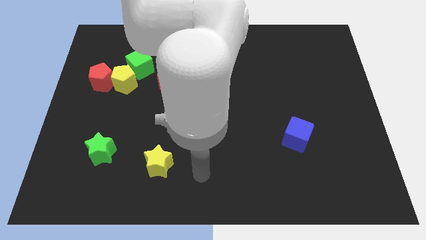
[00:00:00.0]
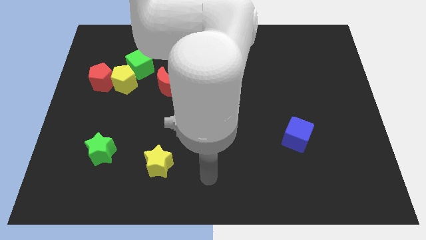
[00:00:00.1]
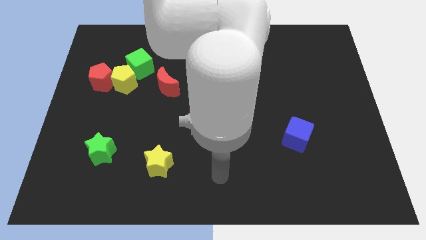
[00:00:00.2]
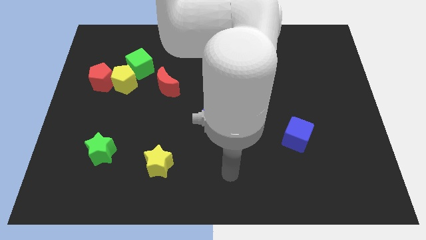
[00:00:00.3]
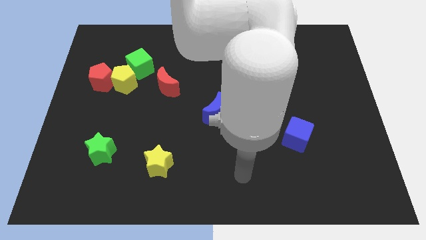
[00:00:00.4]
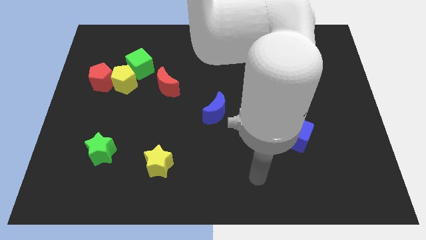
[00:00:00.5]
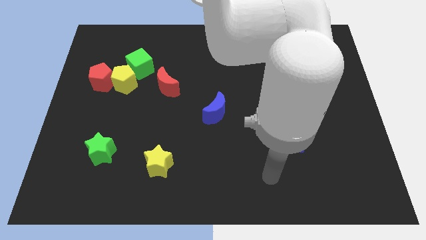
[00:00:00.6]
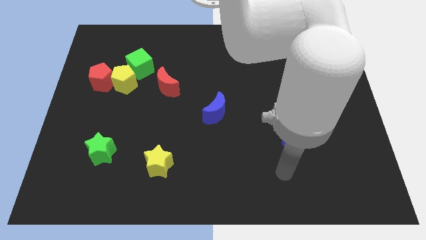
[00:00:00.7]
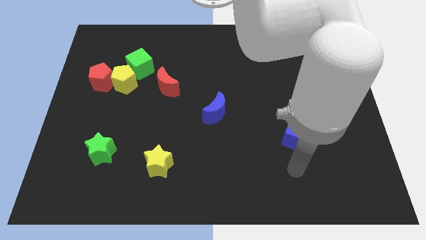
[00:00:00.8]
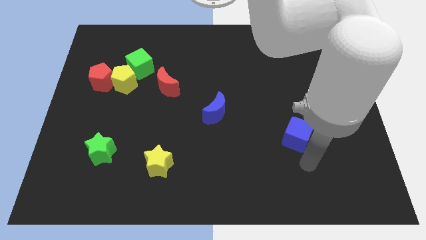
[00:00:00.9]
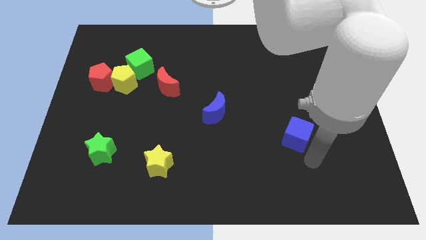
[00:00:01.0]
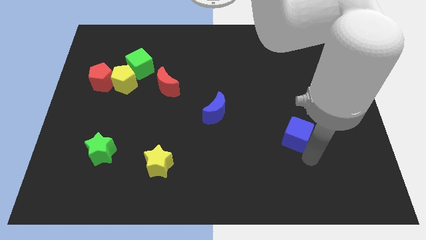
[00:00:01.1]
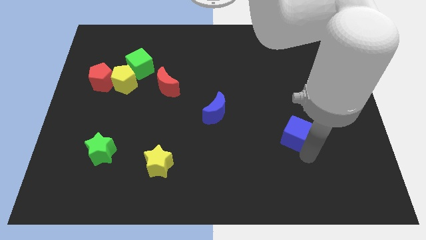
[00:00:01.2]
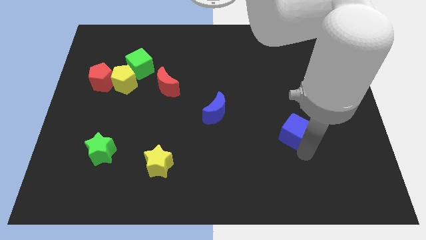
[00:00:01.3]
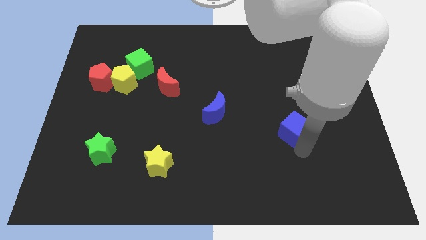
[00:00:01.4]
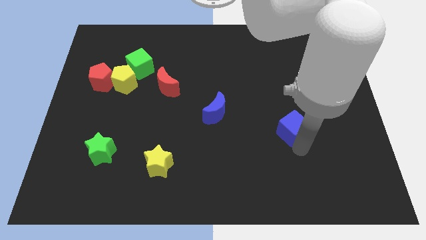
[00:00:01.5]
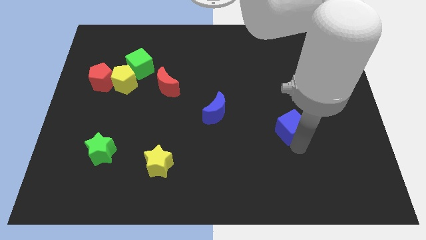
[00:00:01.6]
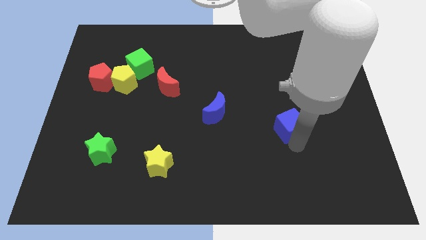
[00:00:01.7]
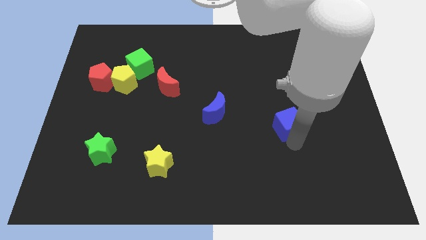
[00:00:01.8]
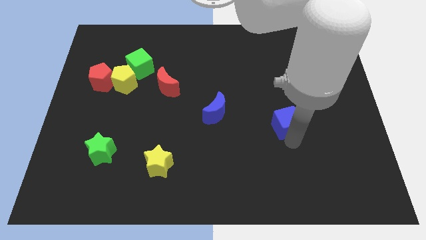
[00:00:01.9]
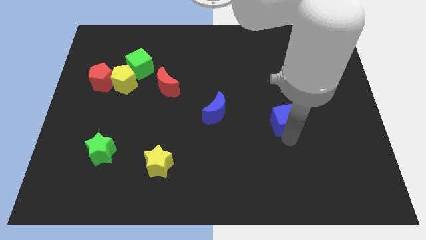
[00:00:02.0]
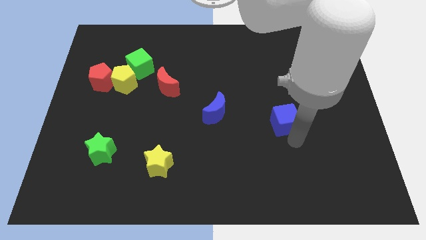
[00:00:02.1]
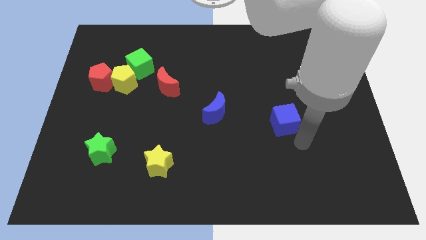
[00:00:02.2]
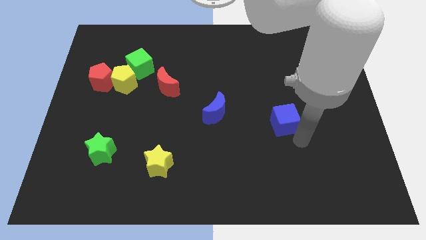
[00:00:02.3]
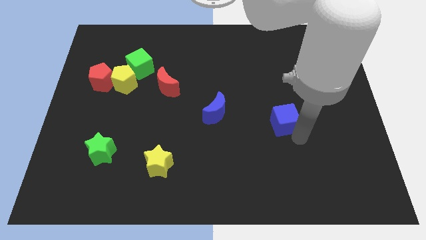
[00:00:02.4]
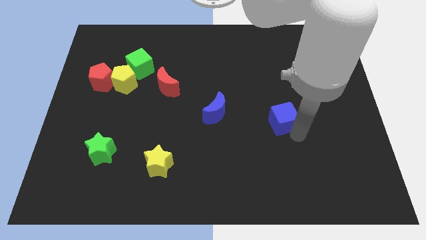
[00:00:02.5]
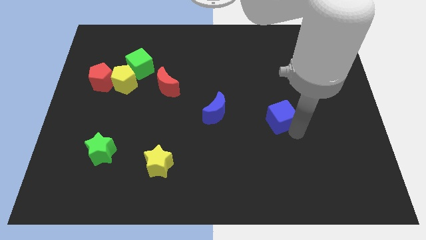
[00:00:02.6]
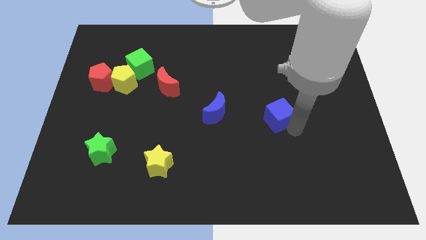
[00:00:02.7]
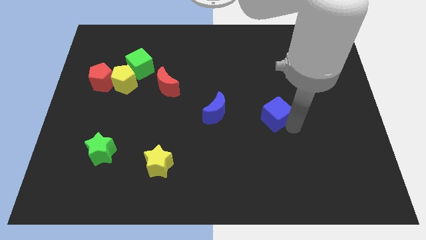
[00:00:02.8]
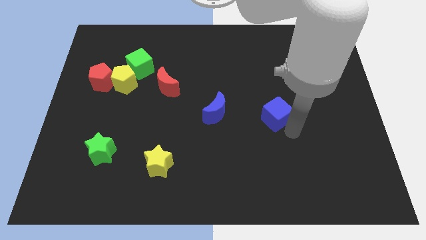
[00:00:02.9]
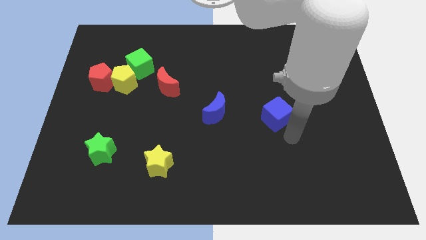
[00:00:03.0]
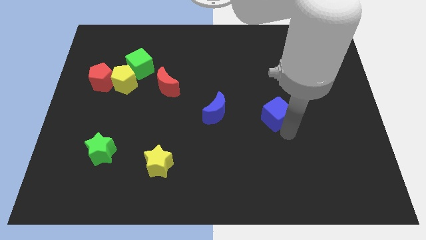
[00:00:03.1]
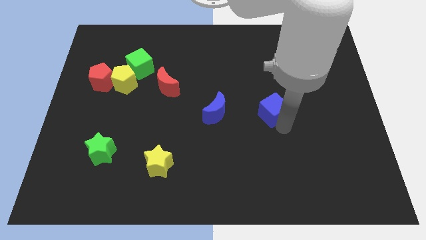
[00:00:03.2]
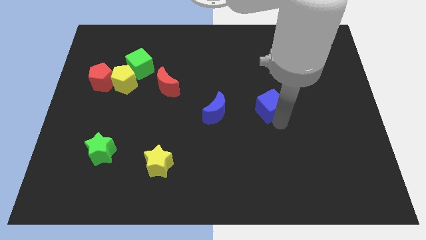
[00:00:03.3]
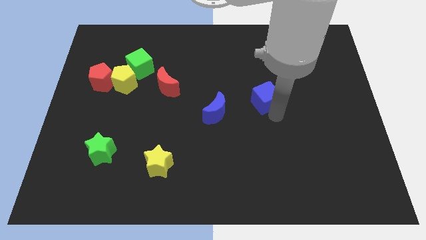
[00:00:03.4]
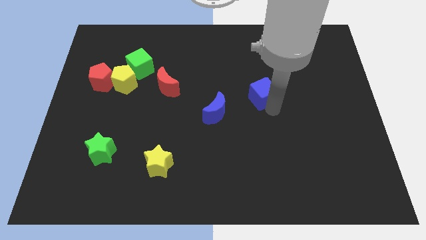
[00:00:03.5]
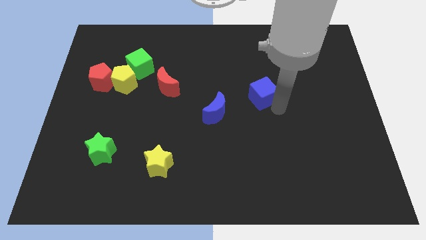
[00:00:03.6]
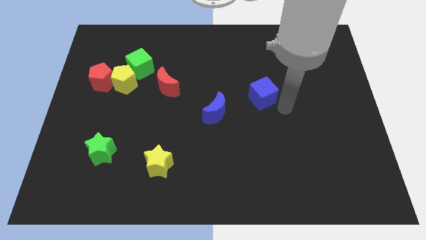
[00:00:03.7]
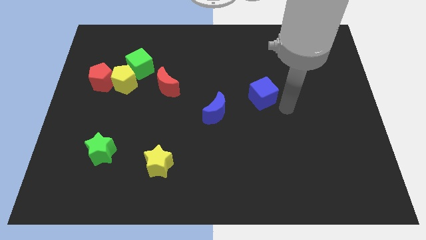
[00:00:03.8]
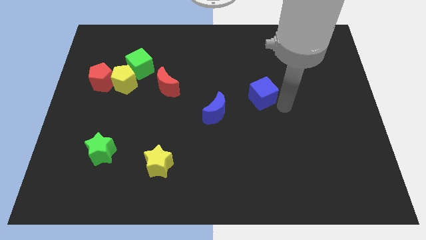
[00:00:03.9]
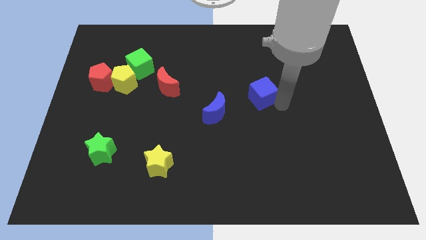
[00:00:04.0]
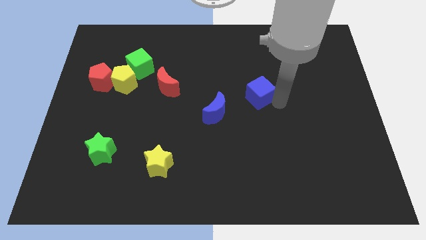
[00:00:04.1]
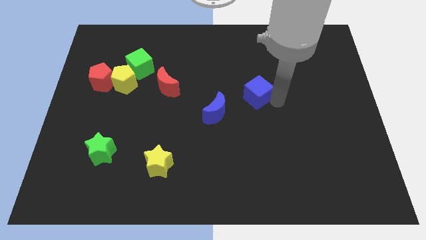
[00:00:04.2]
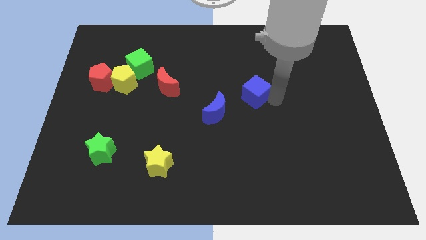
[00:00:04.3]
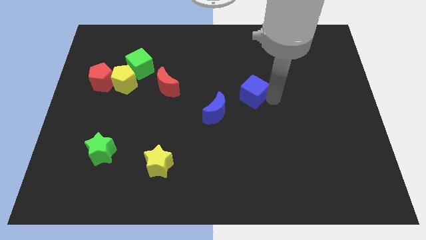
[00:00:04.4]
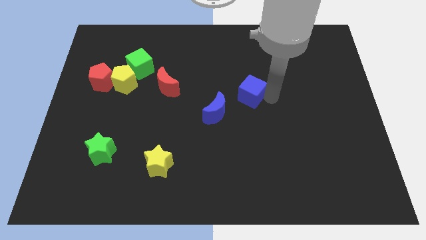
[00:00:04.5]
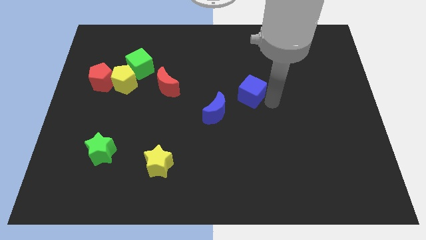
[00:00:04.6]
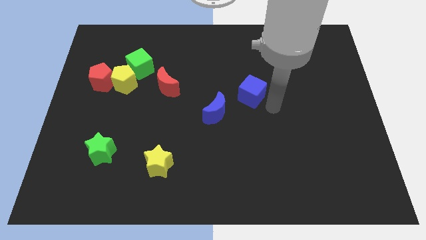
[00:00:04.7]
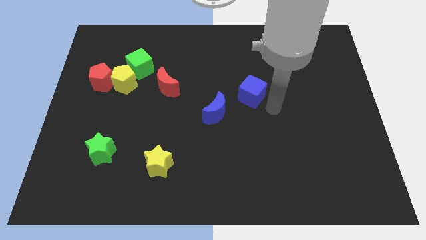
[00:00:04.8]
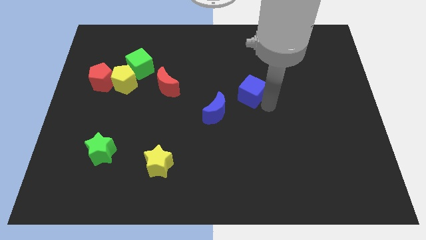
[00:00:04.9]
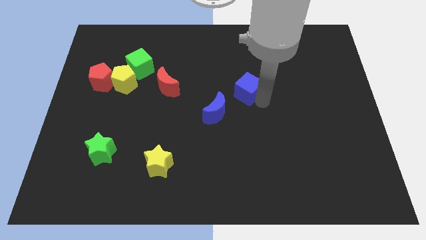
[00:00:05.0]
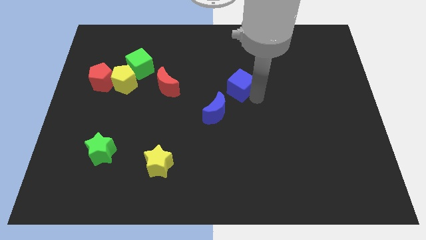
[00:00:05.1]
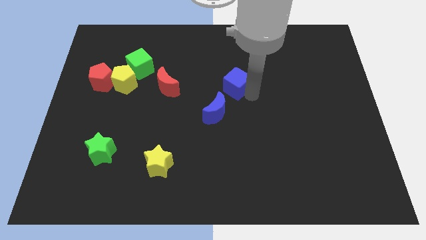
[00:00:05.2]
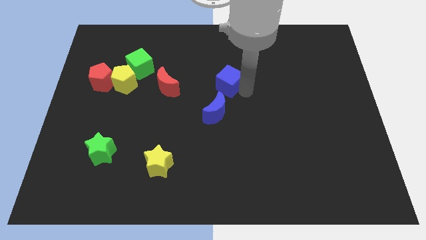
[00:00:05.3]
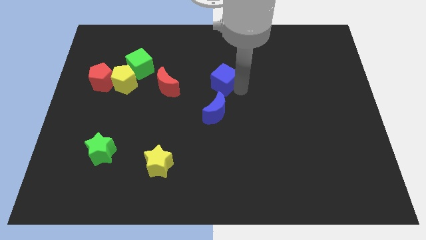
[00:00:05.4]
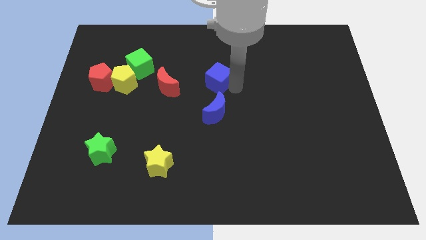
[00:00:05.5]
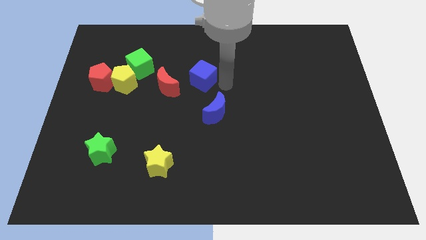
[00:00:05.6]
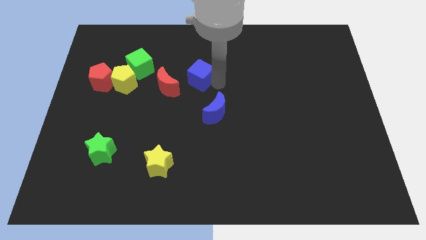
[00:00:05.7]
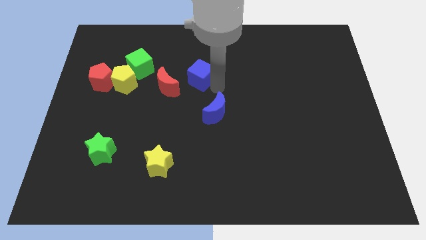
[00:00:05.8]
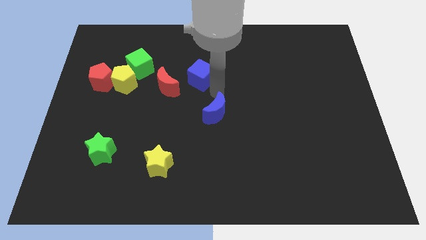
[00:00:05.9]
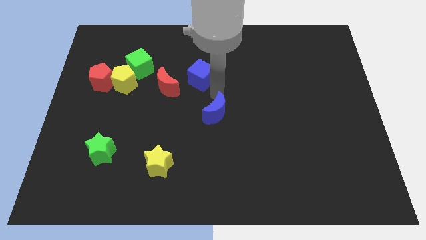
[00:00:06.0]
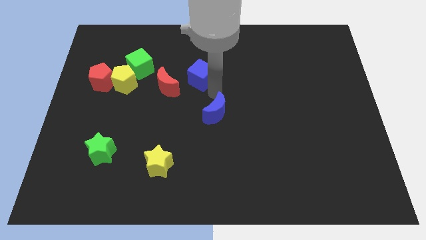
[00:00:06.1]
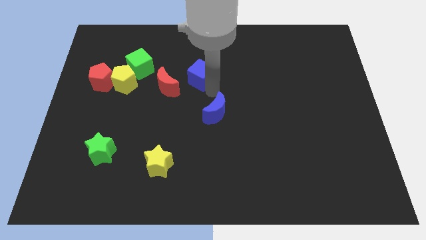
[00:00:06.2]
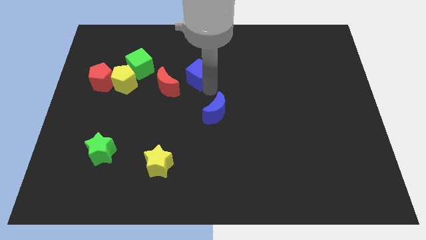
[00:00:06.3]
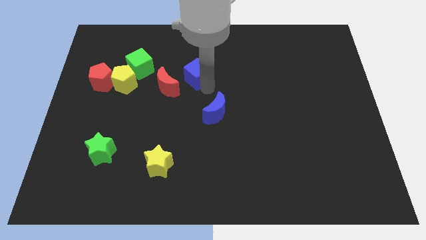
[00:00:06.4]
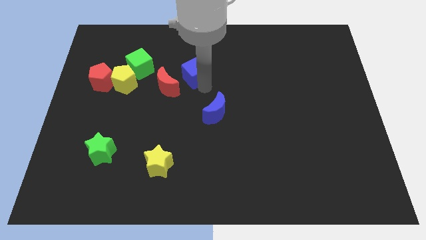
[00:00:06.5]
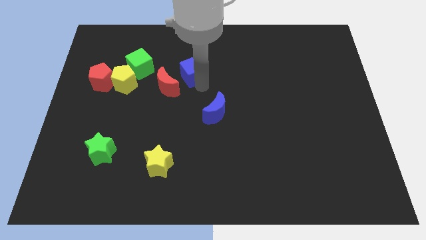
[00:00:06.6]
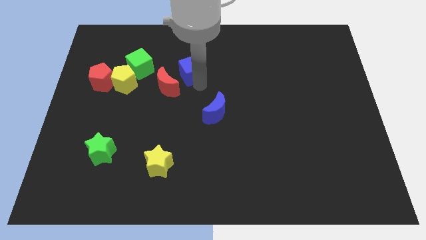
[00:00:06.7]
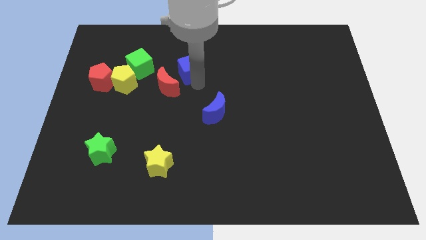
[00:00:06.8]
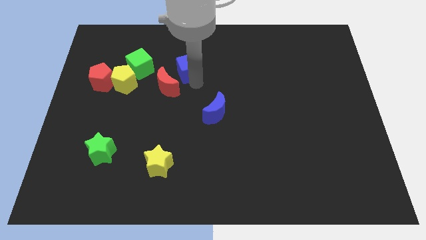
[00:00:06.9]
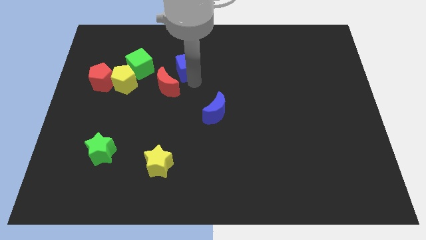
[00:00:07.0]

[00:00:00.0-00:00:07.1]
move the blue cube to the top side of the red moon

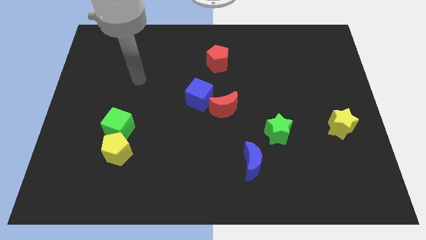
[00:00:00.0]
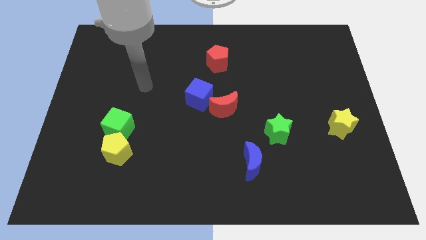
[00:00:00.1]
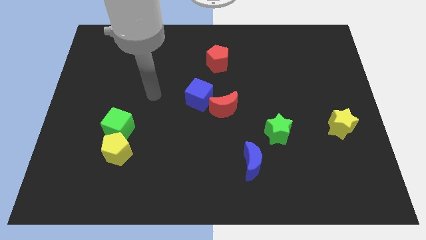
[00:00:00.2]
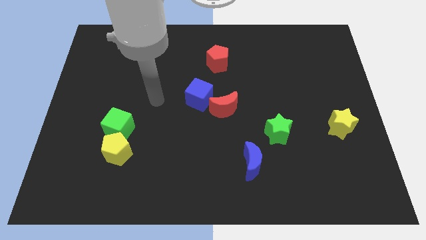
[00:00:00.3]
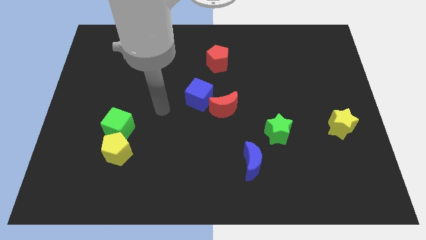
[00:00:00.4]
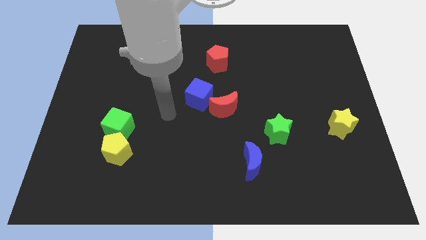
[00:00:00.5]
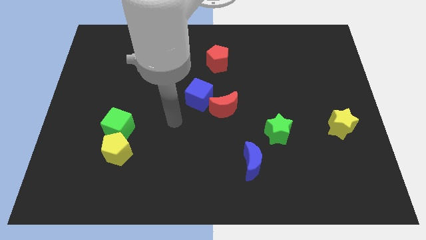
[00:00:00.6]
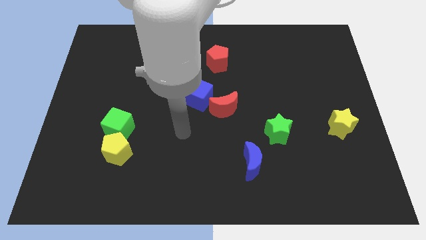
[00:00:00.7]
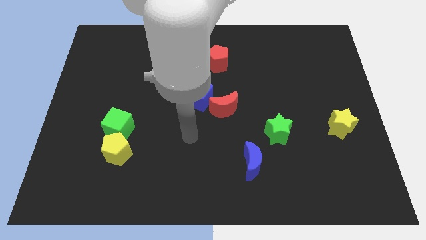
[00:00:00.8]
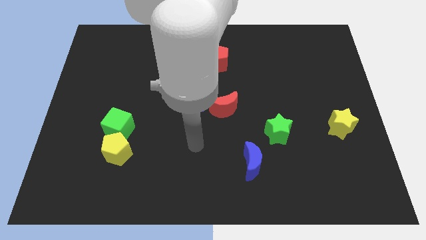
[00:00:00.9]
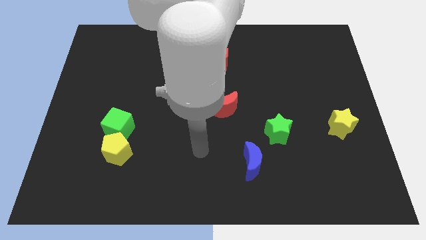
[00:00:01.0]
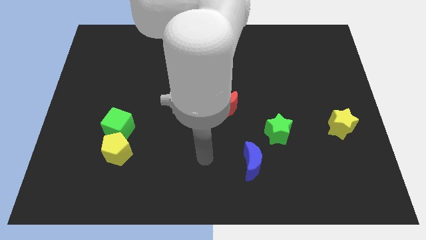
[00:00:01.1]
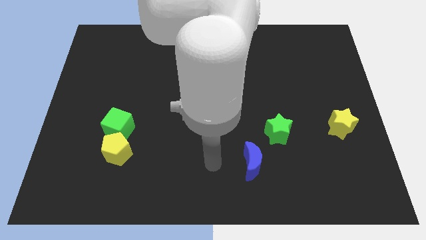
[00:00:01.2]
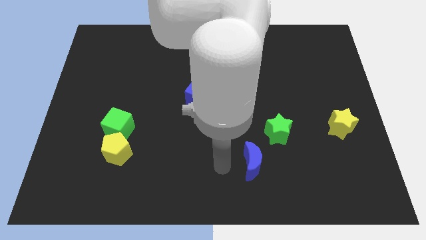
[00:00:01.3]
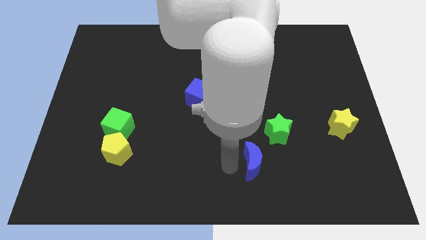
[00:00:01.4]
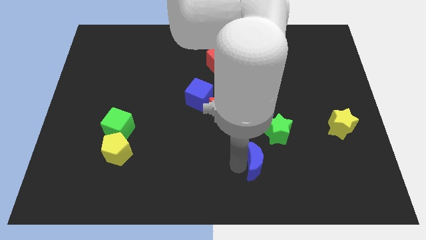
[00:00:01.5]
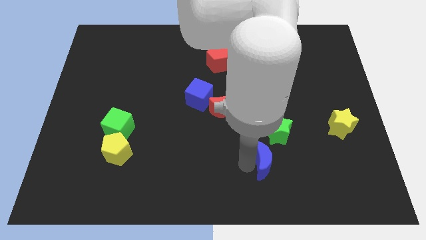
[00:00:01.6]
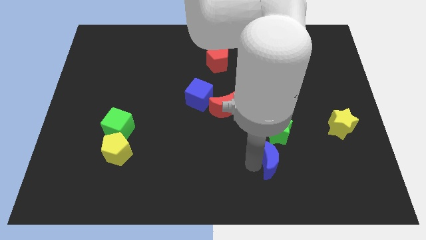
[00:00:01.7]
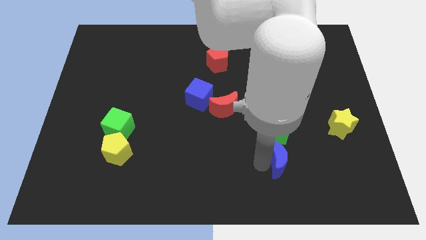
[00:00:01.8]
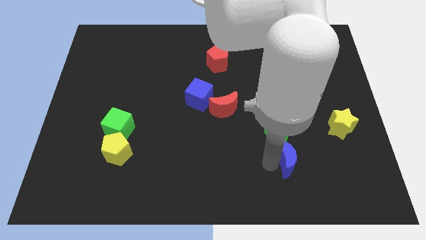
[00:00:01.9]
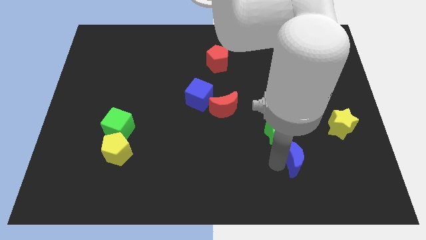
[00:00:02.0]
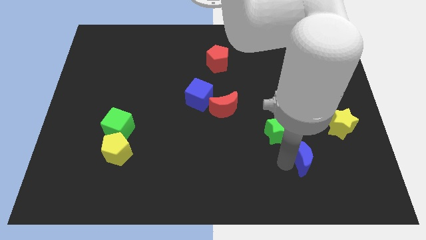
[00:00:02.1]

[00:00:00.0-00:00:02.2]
push the blue moon to the bottom left of the yellow star
